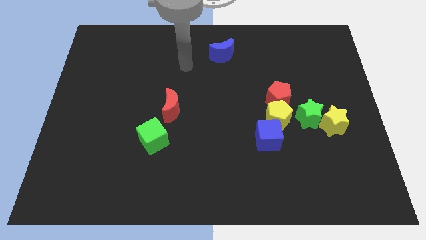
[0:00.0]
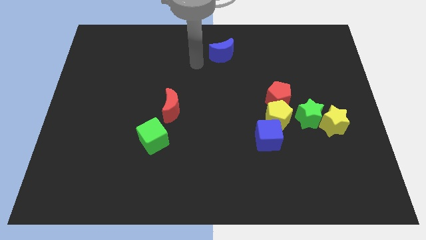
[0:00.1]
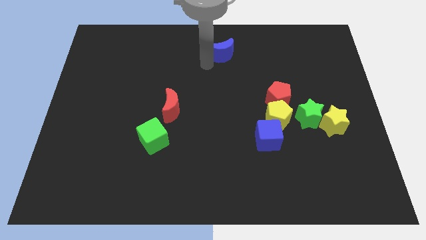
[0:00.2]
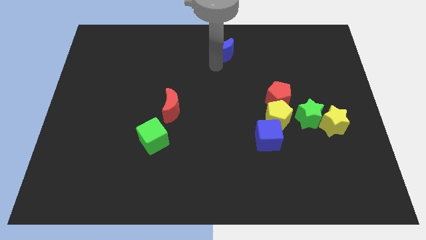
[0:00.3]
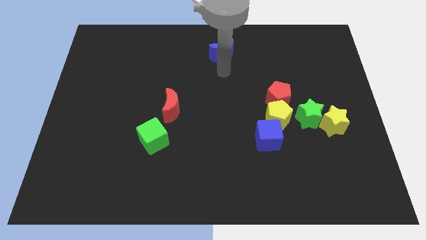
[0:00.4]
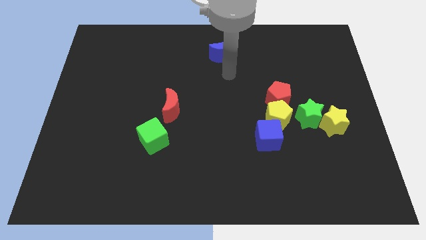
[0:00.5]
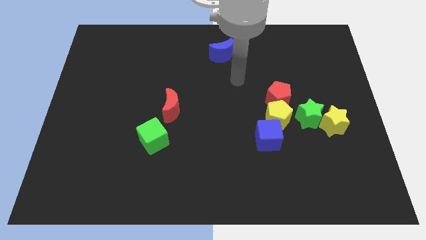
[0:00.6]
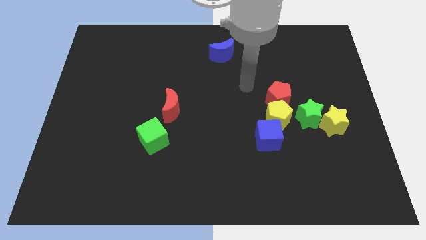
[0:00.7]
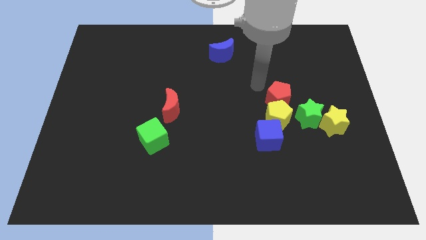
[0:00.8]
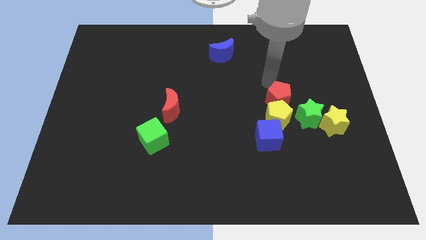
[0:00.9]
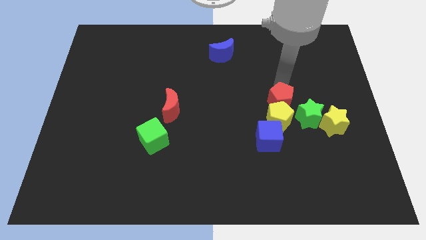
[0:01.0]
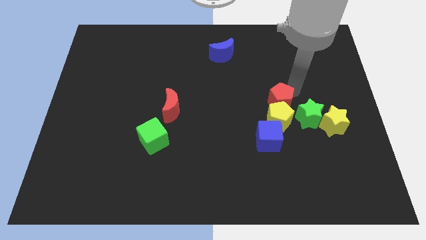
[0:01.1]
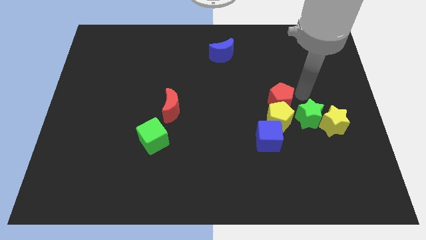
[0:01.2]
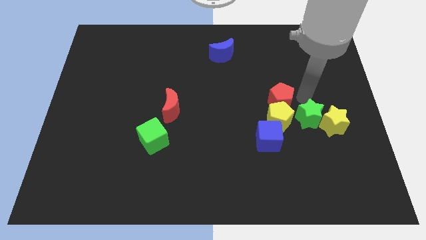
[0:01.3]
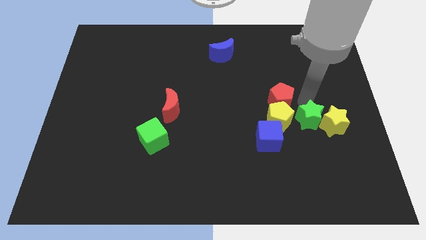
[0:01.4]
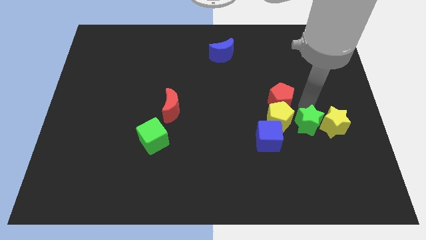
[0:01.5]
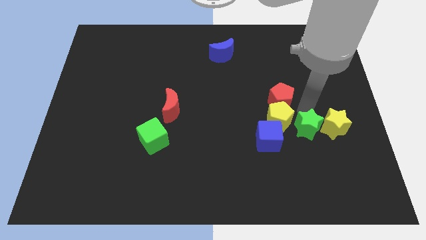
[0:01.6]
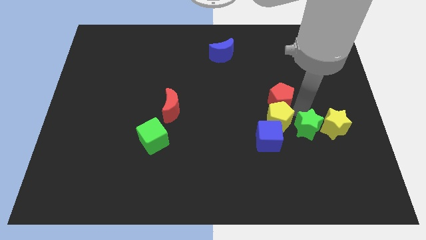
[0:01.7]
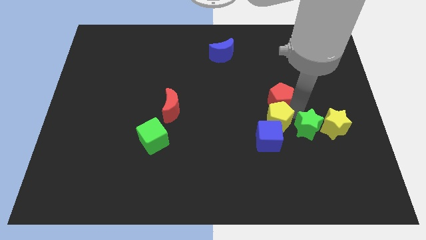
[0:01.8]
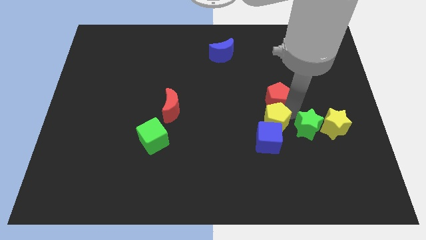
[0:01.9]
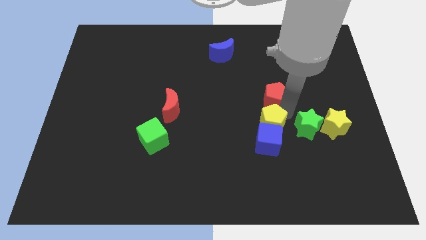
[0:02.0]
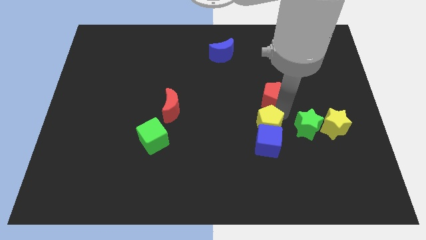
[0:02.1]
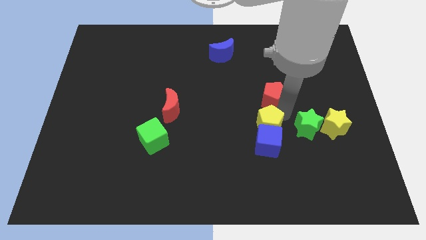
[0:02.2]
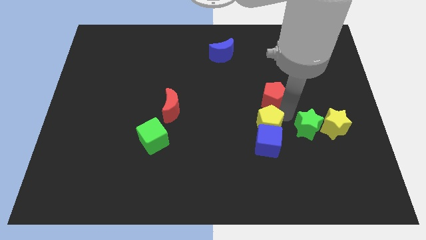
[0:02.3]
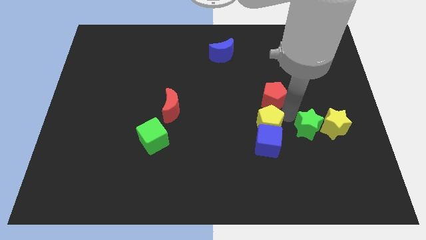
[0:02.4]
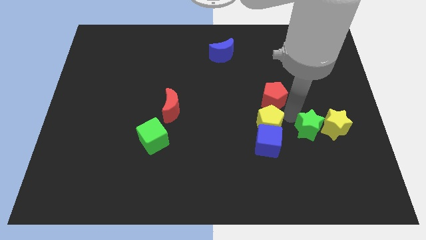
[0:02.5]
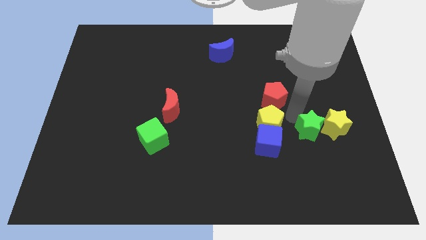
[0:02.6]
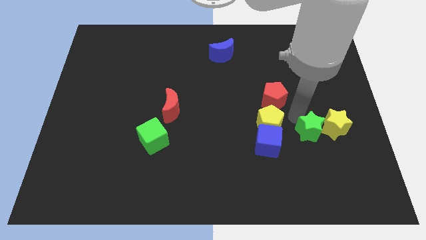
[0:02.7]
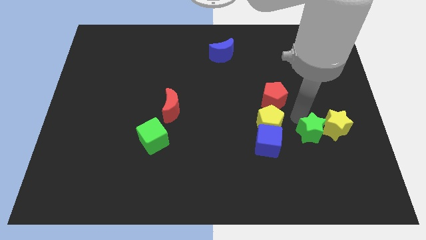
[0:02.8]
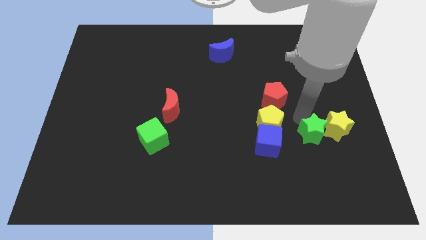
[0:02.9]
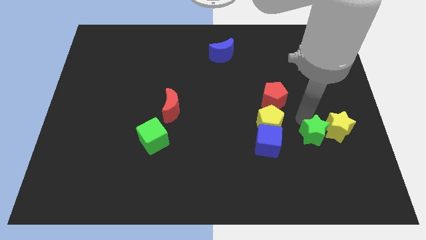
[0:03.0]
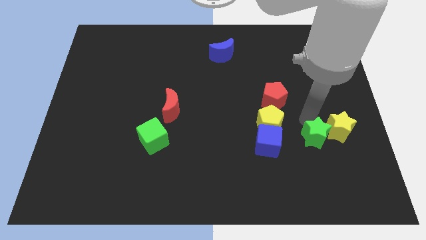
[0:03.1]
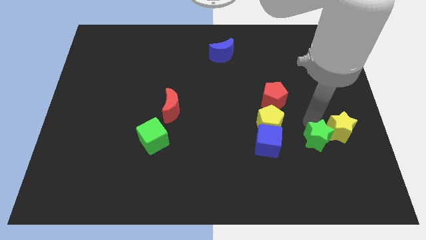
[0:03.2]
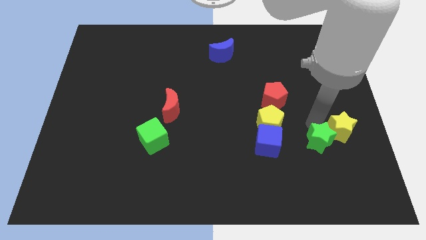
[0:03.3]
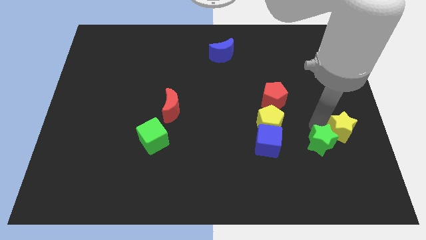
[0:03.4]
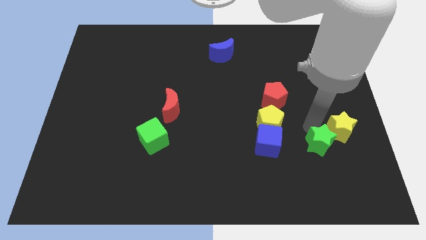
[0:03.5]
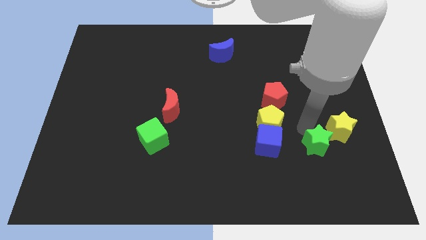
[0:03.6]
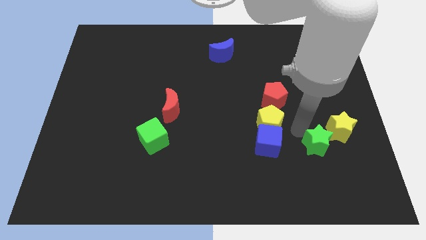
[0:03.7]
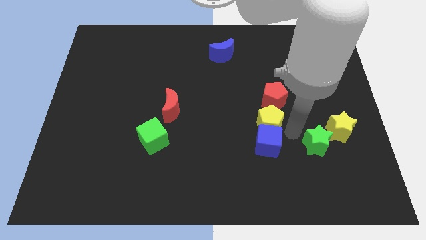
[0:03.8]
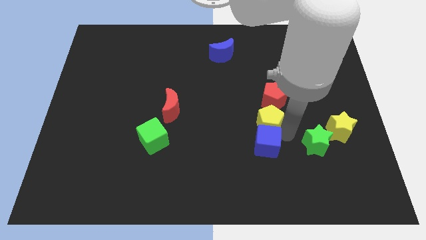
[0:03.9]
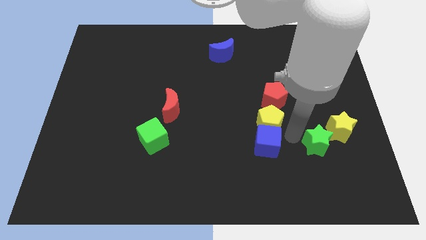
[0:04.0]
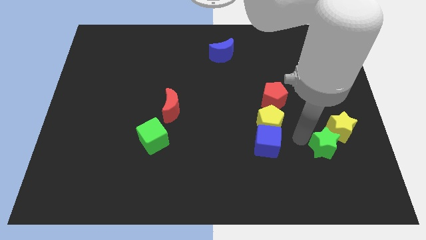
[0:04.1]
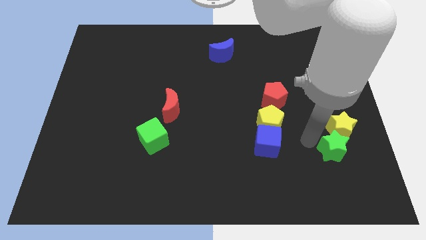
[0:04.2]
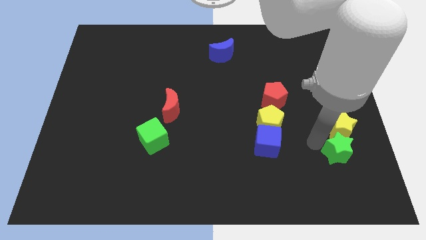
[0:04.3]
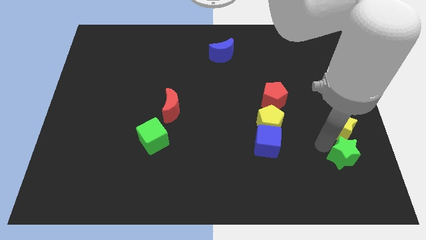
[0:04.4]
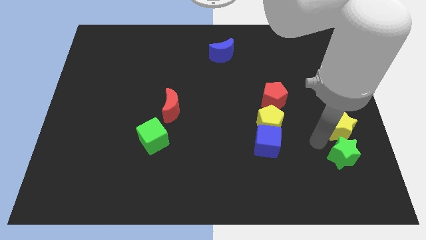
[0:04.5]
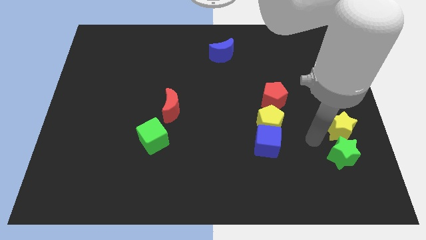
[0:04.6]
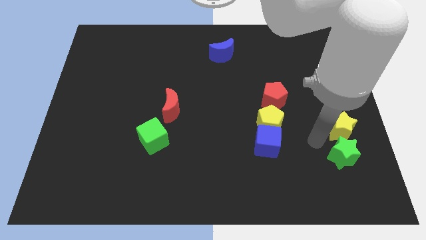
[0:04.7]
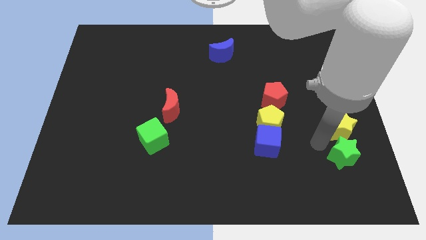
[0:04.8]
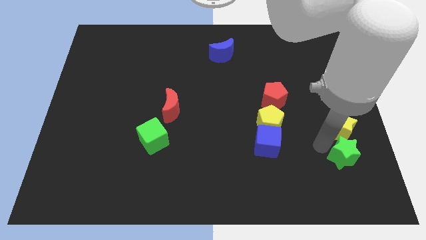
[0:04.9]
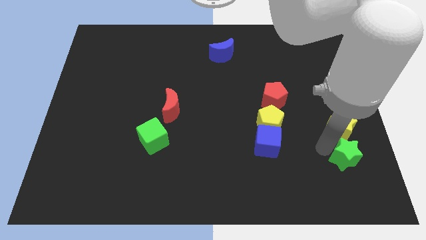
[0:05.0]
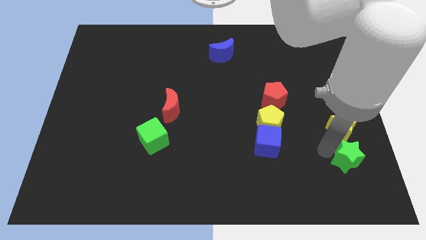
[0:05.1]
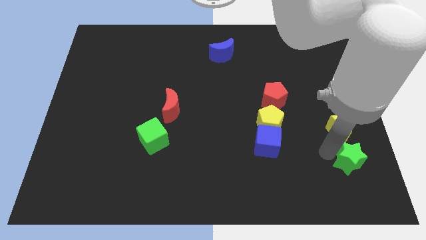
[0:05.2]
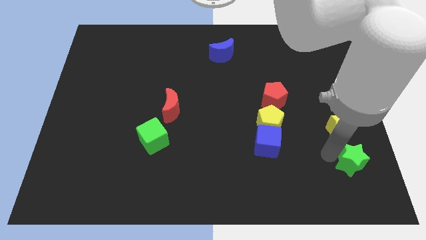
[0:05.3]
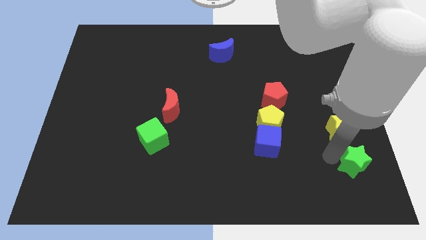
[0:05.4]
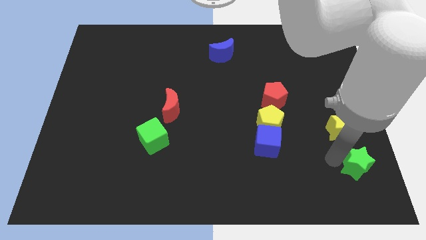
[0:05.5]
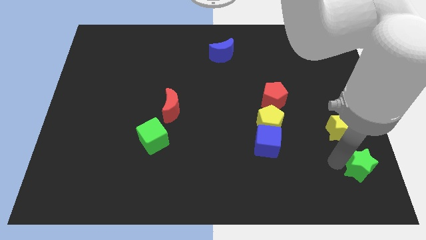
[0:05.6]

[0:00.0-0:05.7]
slide the green star to the bottom right

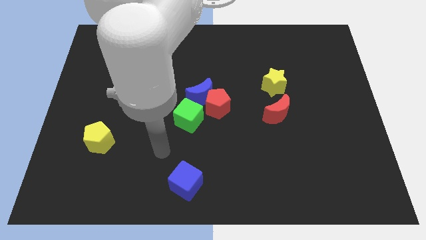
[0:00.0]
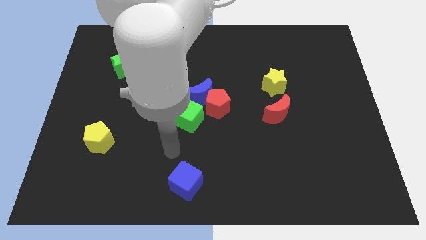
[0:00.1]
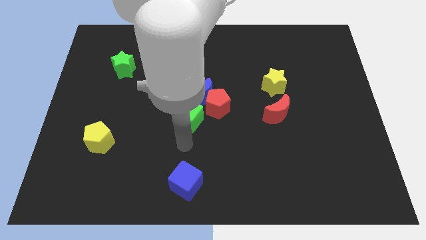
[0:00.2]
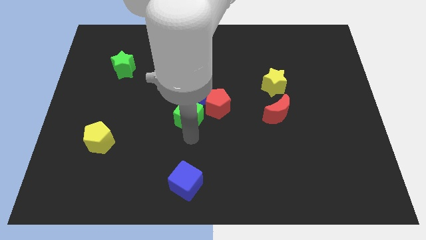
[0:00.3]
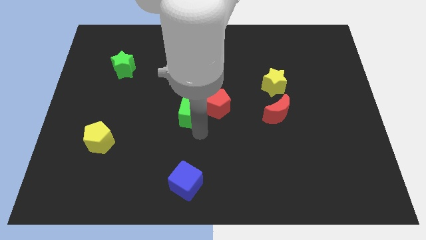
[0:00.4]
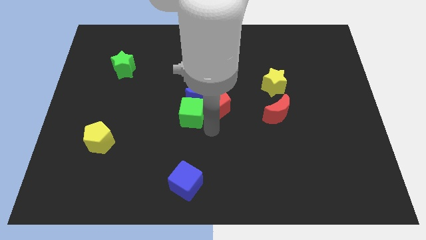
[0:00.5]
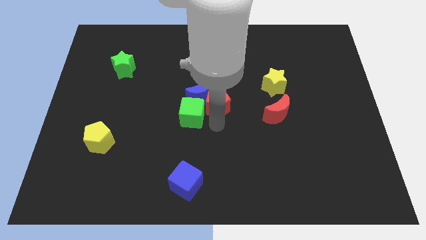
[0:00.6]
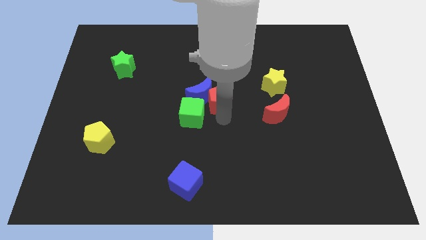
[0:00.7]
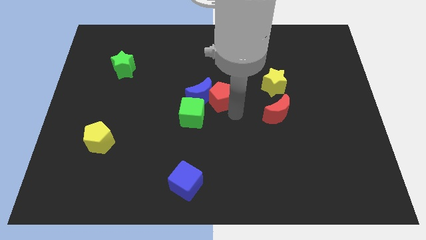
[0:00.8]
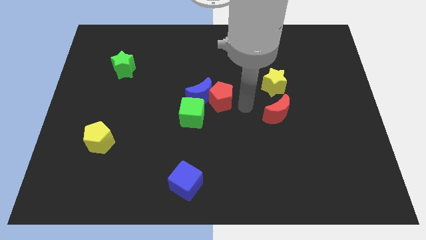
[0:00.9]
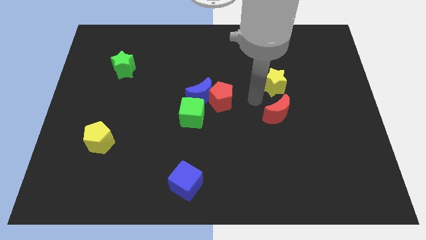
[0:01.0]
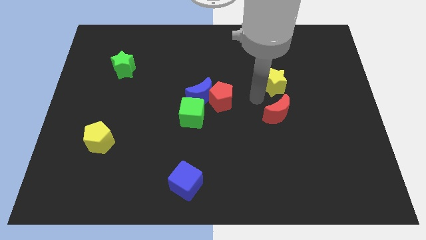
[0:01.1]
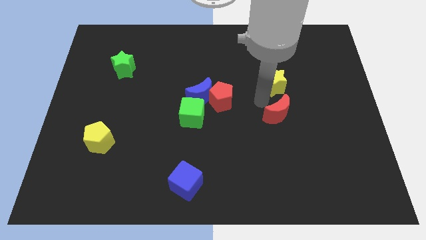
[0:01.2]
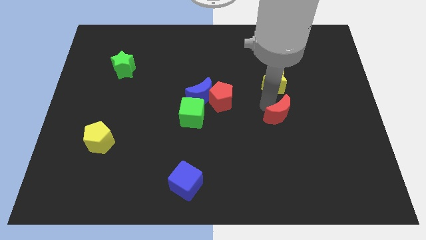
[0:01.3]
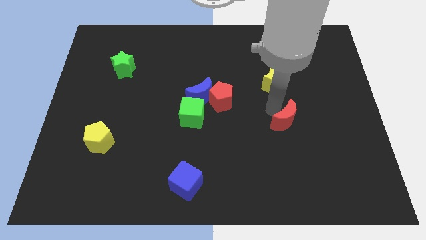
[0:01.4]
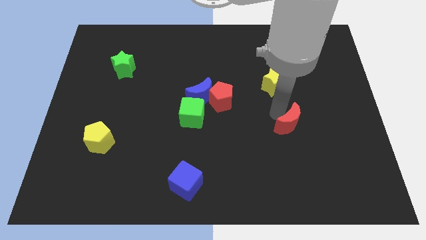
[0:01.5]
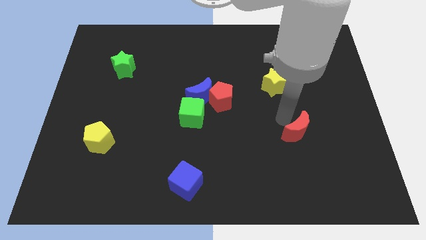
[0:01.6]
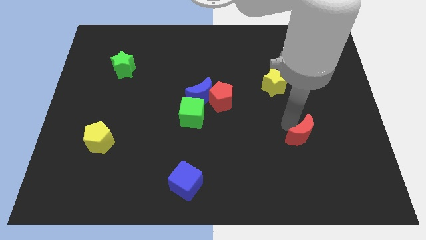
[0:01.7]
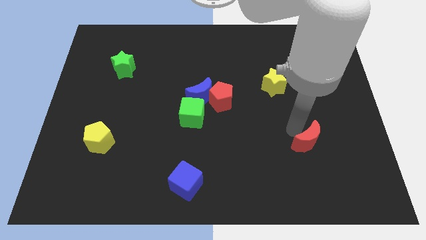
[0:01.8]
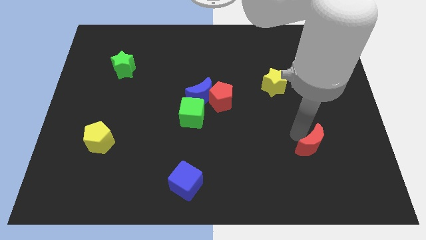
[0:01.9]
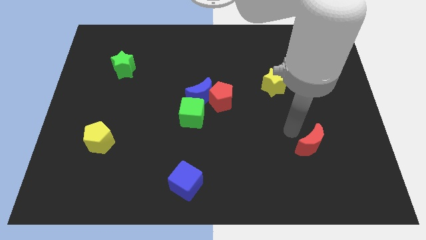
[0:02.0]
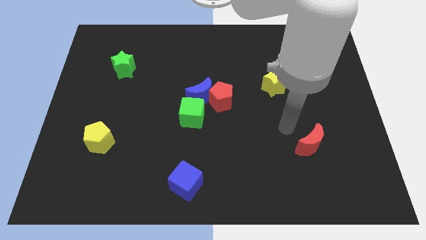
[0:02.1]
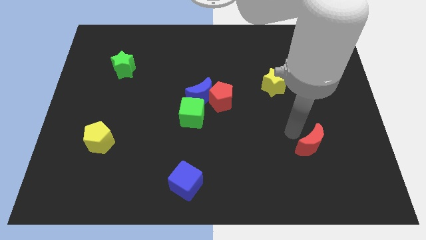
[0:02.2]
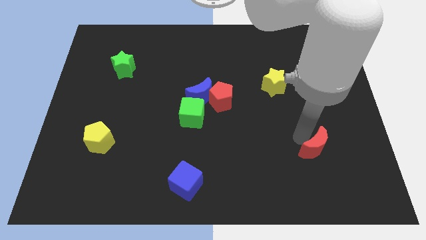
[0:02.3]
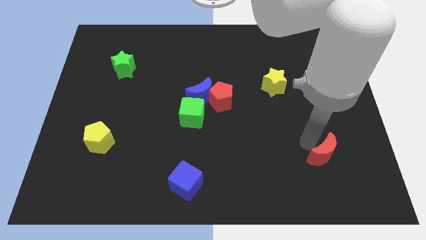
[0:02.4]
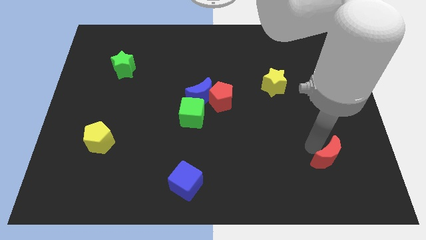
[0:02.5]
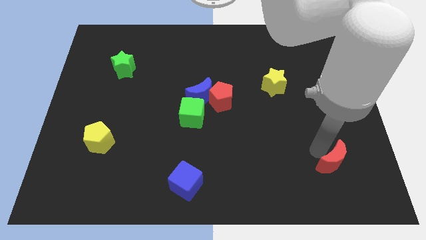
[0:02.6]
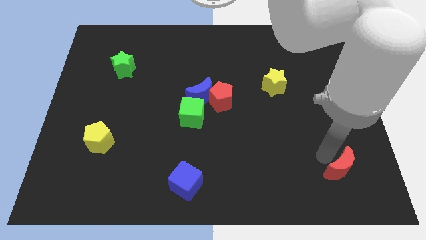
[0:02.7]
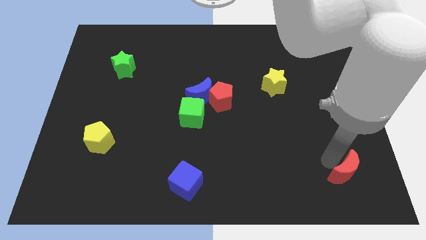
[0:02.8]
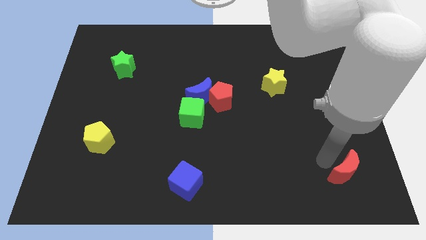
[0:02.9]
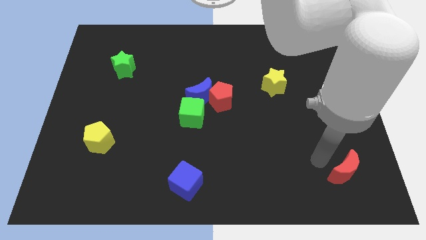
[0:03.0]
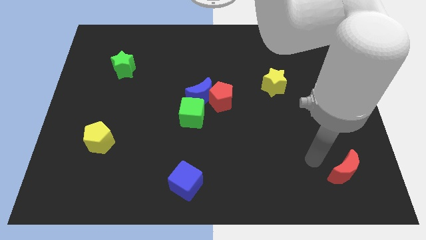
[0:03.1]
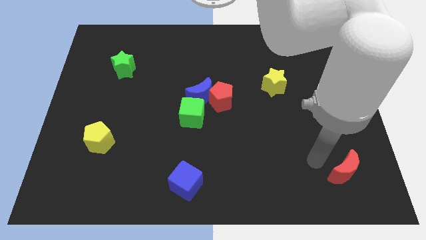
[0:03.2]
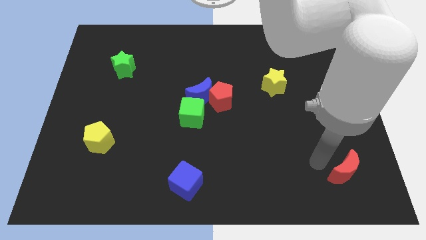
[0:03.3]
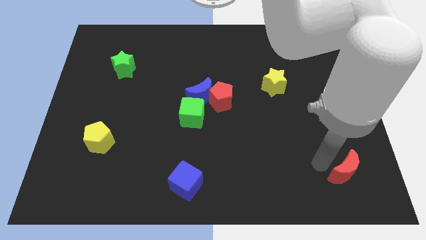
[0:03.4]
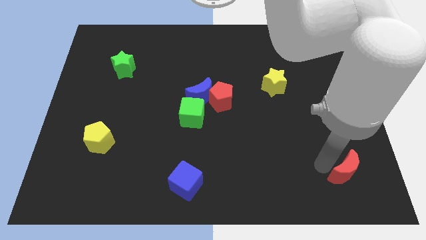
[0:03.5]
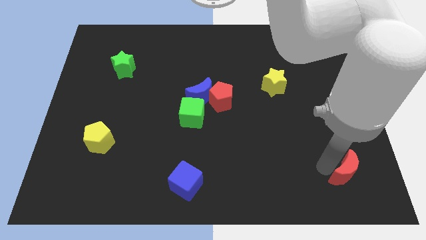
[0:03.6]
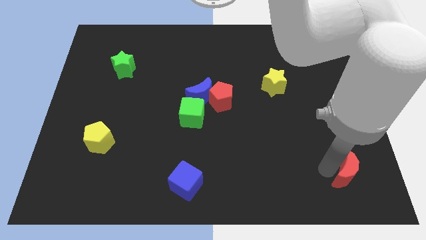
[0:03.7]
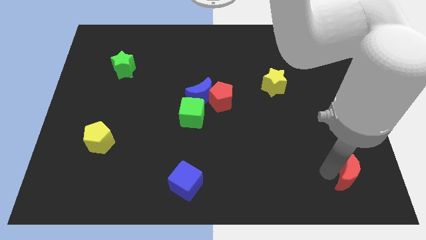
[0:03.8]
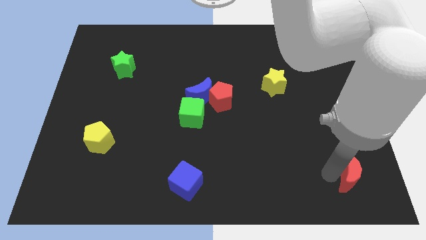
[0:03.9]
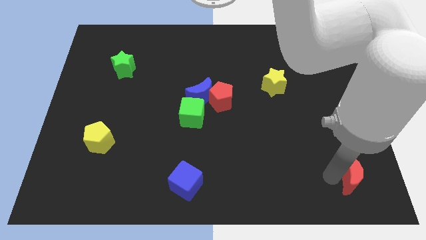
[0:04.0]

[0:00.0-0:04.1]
slide the red moon to the bottom right of the board
